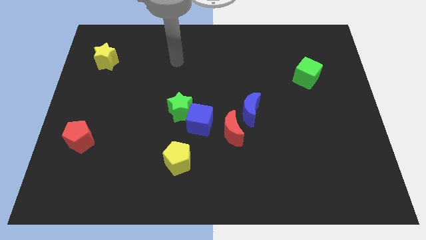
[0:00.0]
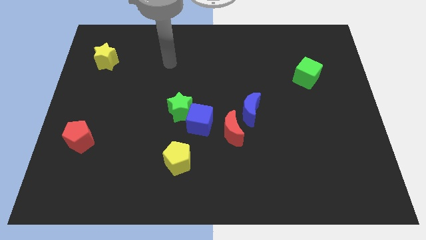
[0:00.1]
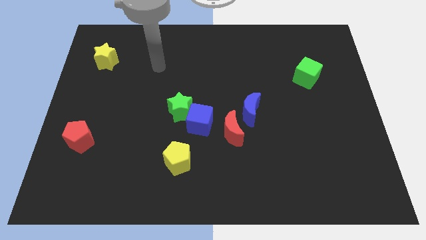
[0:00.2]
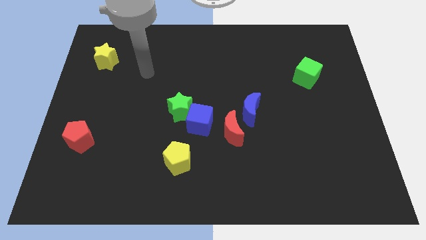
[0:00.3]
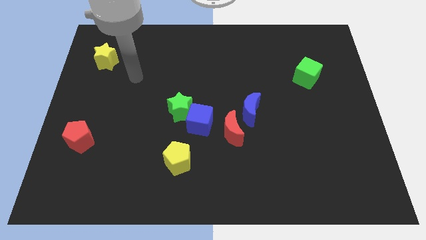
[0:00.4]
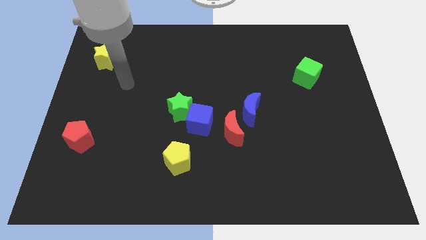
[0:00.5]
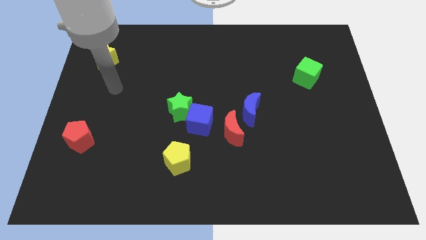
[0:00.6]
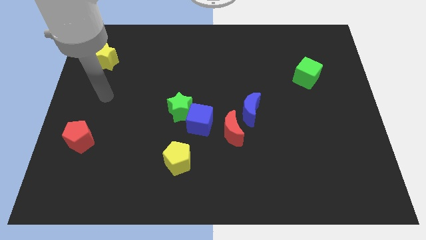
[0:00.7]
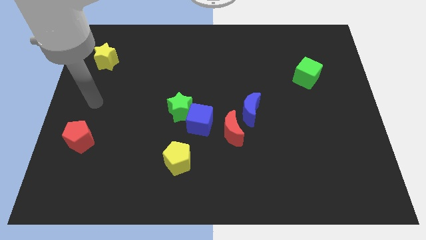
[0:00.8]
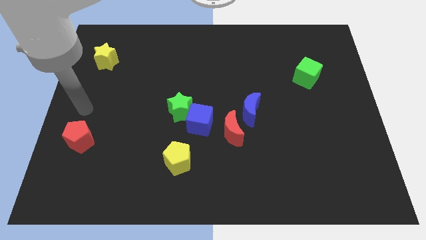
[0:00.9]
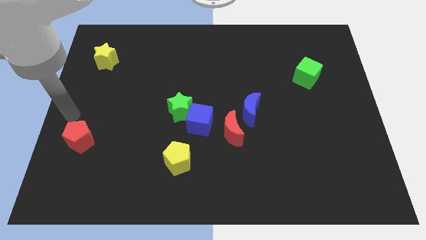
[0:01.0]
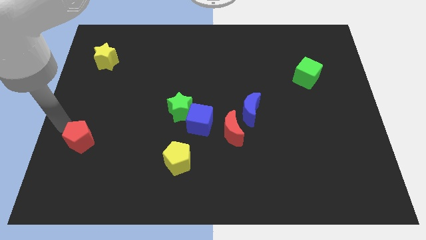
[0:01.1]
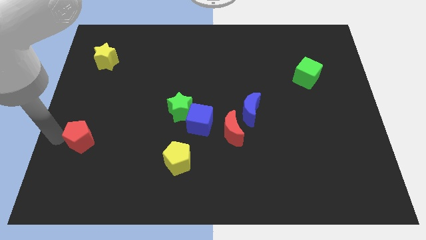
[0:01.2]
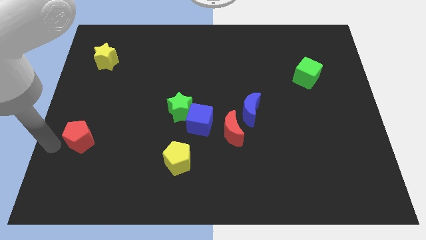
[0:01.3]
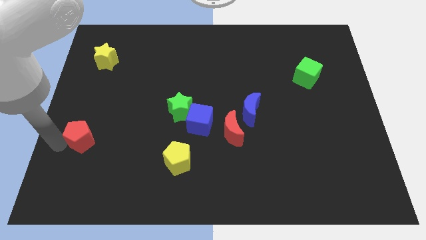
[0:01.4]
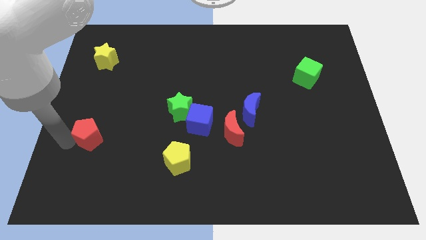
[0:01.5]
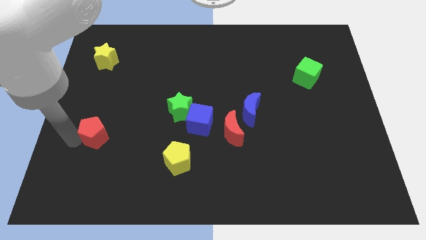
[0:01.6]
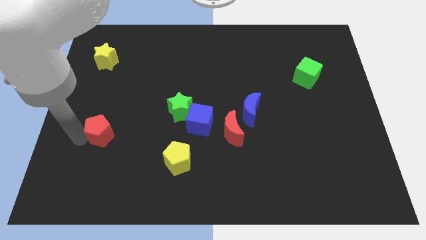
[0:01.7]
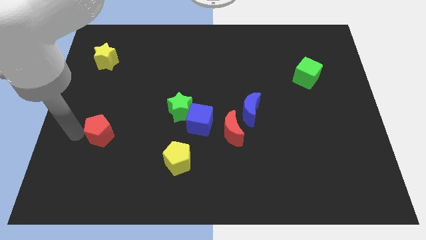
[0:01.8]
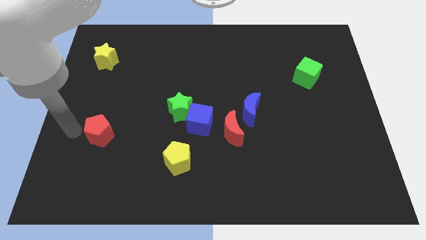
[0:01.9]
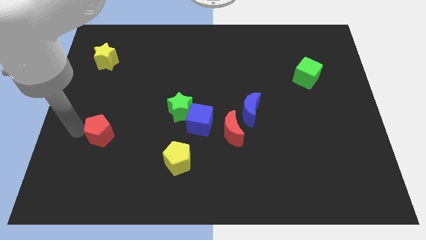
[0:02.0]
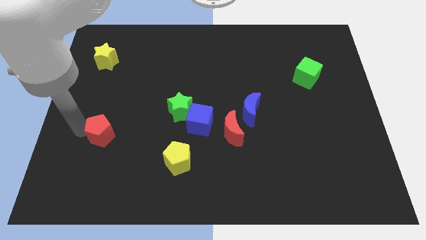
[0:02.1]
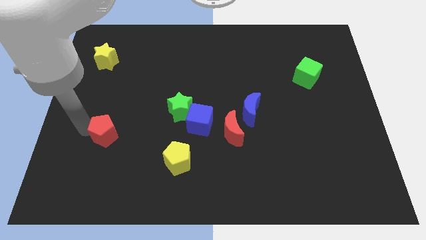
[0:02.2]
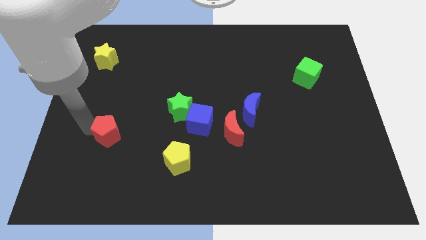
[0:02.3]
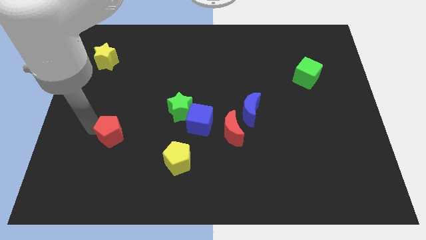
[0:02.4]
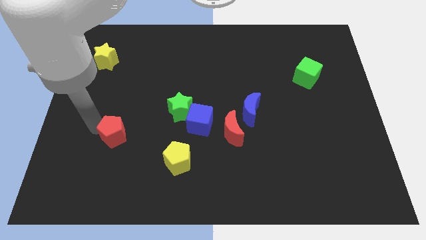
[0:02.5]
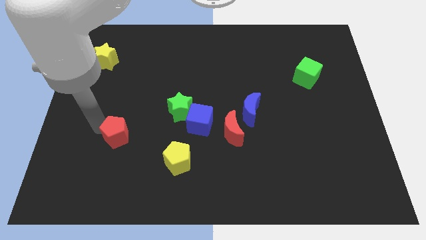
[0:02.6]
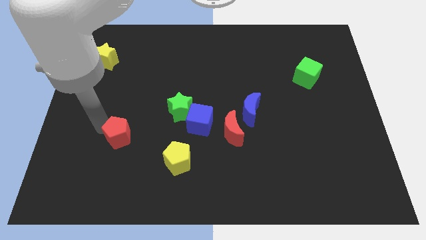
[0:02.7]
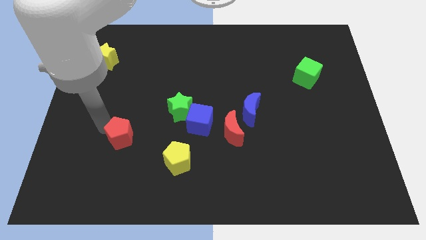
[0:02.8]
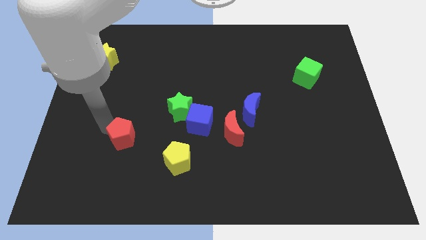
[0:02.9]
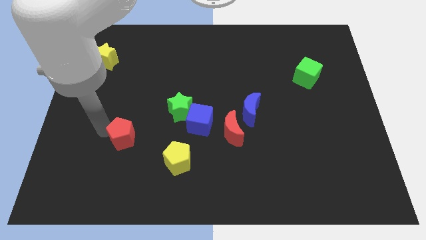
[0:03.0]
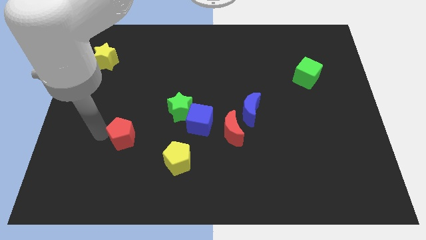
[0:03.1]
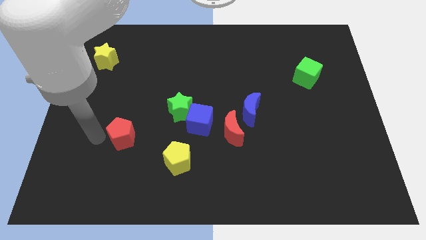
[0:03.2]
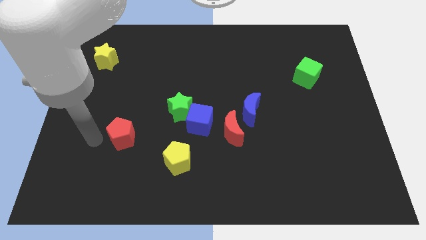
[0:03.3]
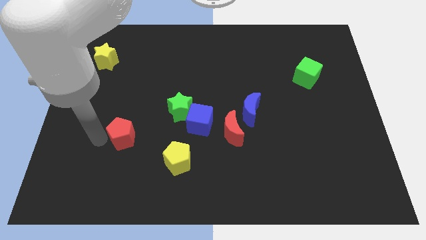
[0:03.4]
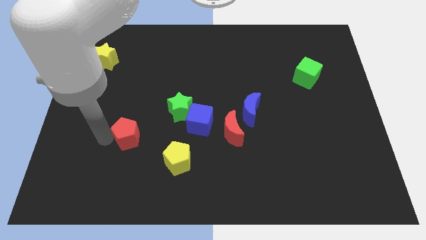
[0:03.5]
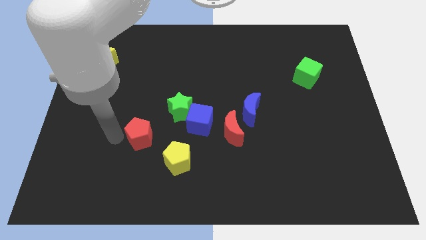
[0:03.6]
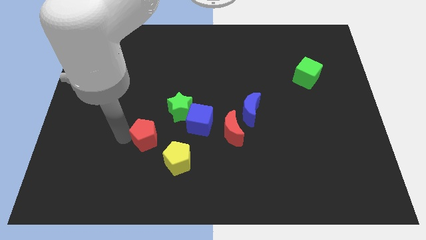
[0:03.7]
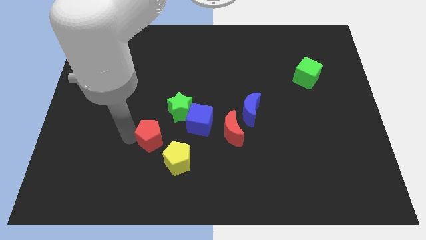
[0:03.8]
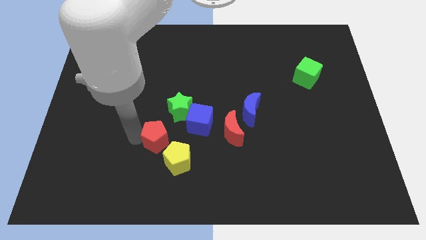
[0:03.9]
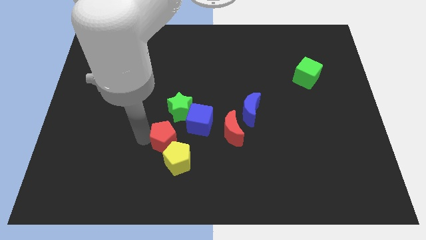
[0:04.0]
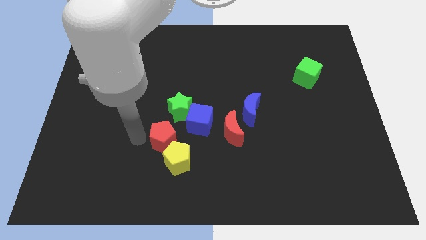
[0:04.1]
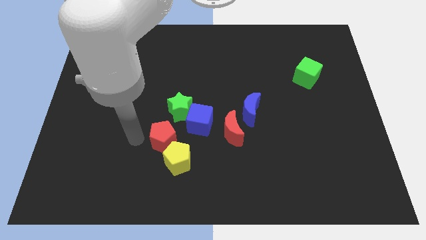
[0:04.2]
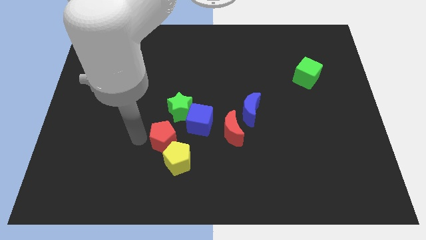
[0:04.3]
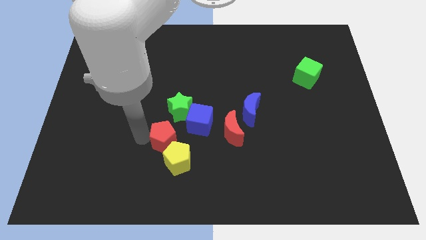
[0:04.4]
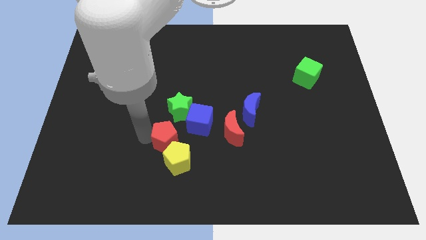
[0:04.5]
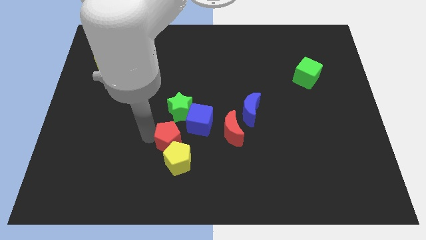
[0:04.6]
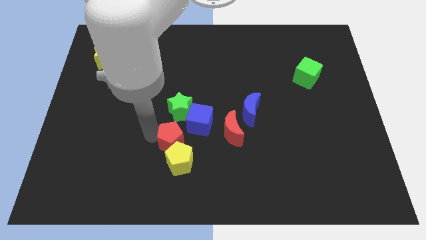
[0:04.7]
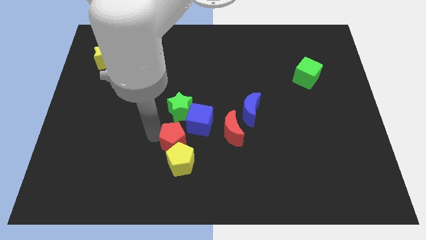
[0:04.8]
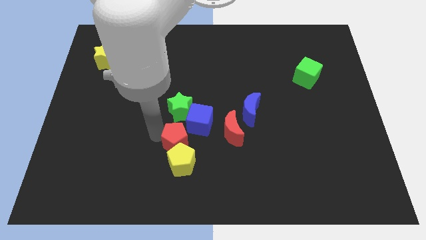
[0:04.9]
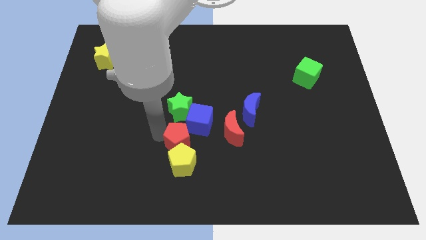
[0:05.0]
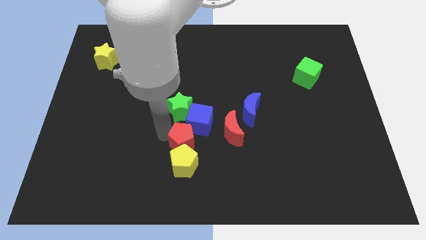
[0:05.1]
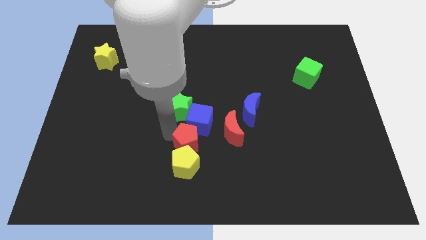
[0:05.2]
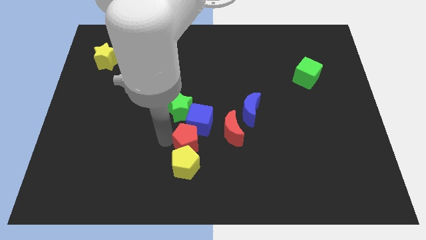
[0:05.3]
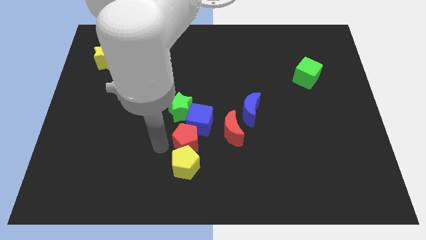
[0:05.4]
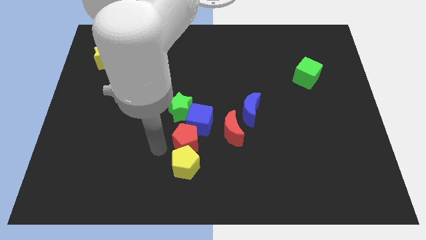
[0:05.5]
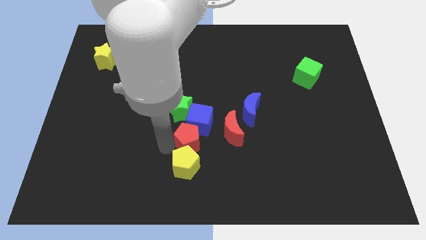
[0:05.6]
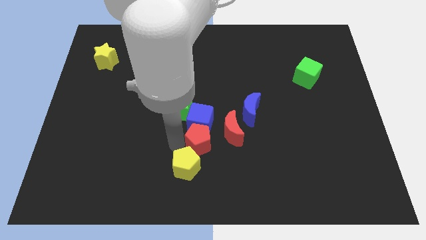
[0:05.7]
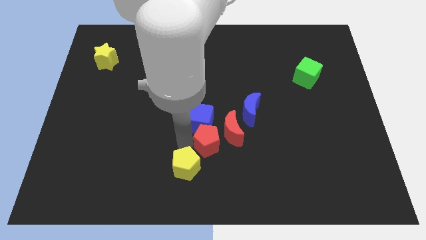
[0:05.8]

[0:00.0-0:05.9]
push the red pentagon close to the red moon

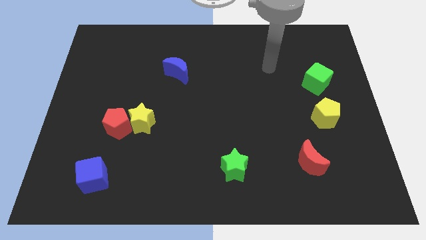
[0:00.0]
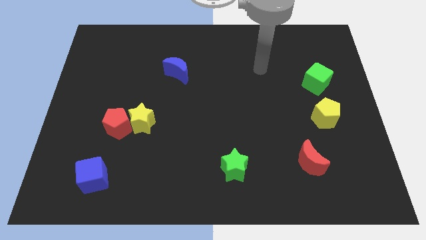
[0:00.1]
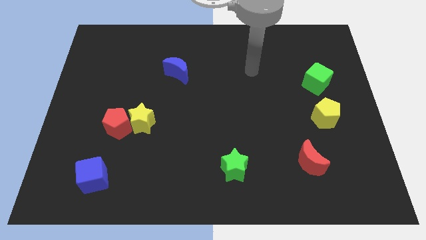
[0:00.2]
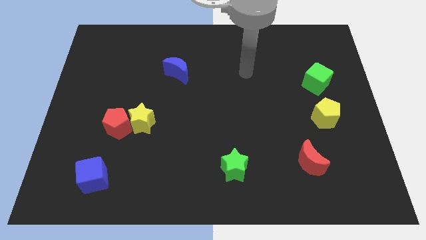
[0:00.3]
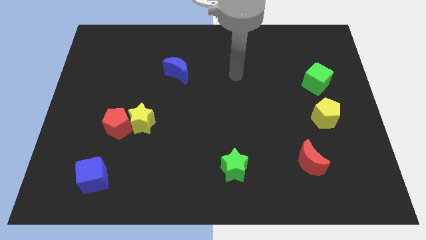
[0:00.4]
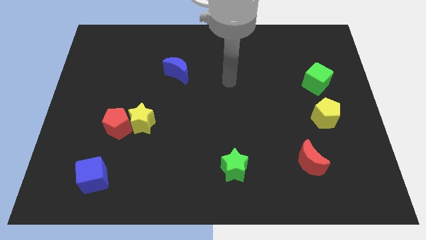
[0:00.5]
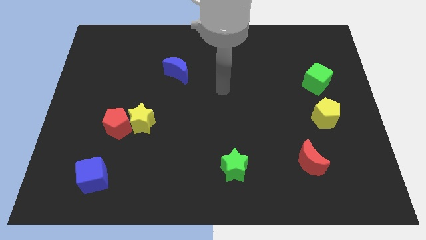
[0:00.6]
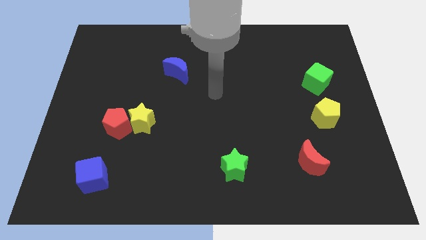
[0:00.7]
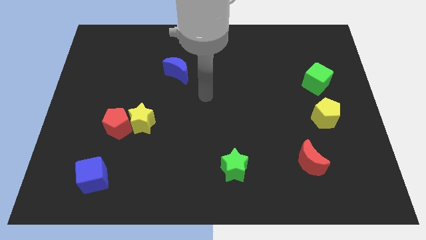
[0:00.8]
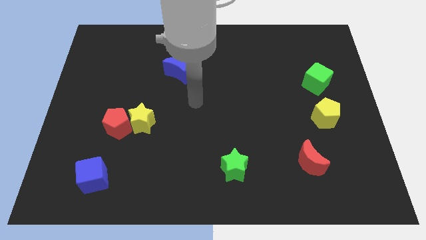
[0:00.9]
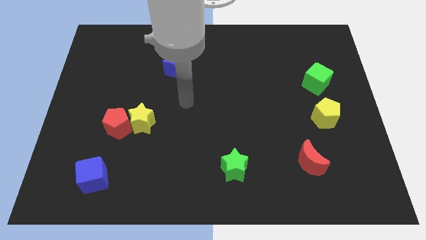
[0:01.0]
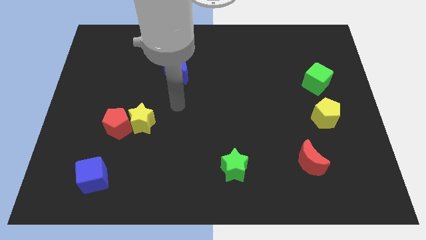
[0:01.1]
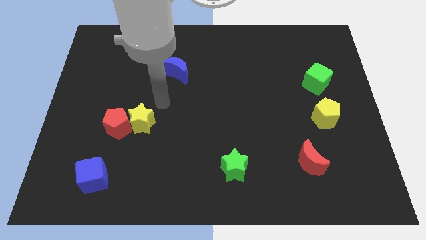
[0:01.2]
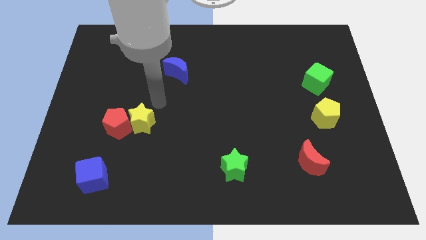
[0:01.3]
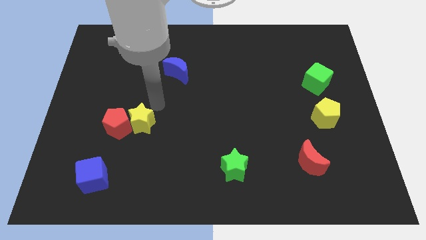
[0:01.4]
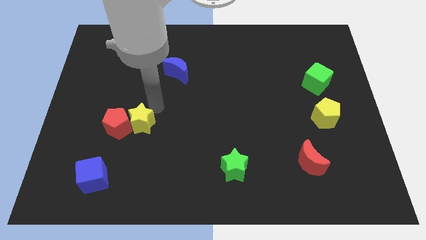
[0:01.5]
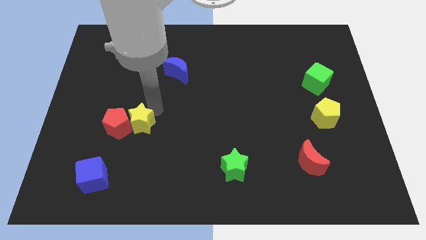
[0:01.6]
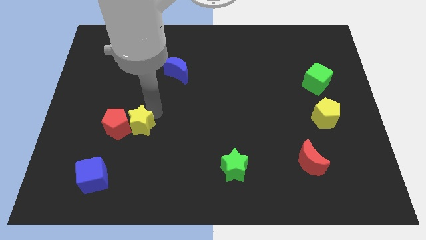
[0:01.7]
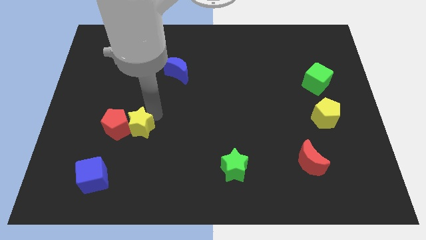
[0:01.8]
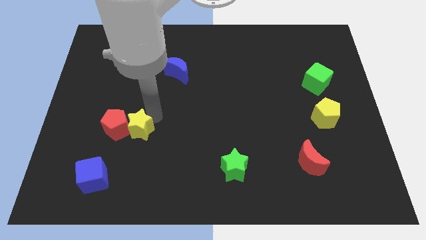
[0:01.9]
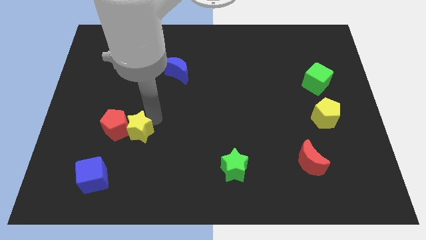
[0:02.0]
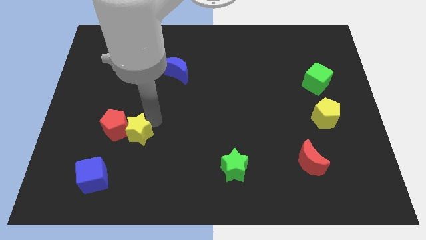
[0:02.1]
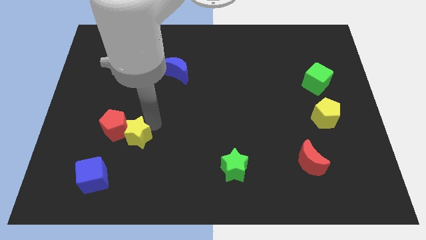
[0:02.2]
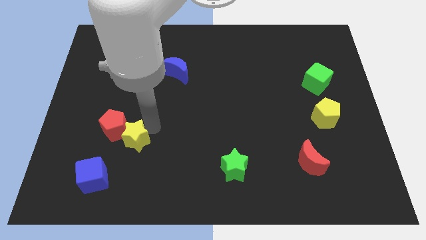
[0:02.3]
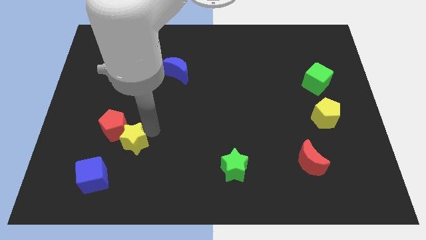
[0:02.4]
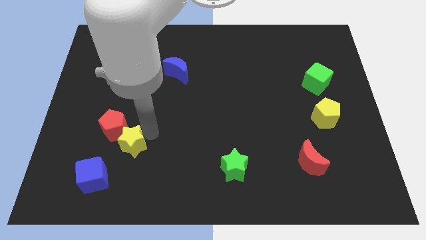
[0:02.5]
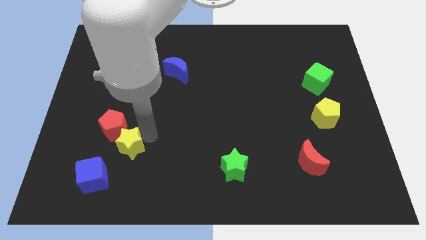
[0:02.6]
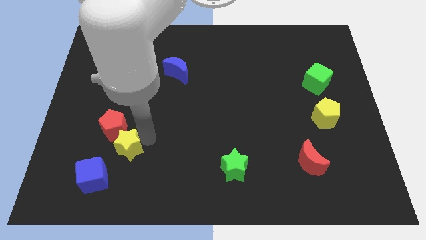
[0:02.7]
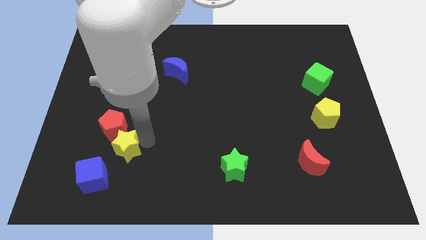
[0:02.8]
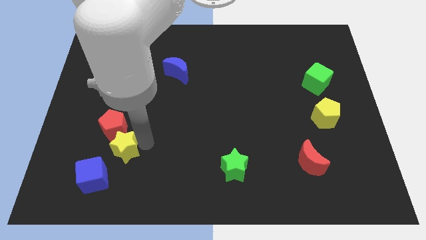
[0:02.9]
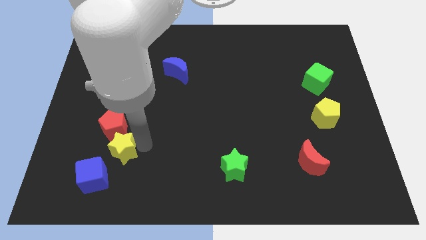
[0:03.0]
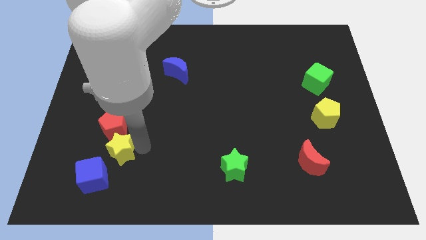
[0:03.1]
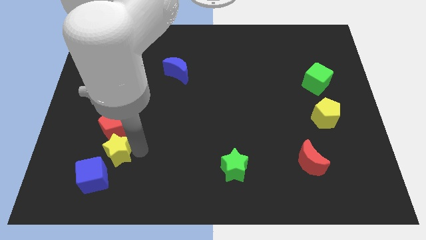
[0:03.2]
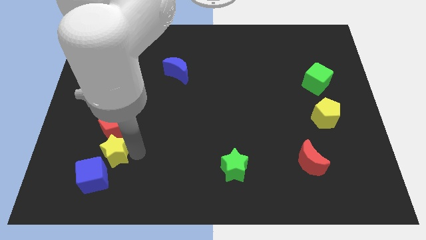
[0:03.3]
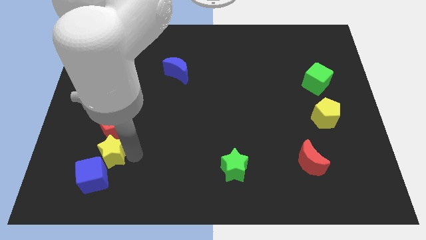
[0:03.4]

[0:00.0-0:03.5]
push the yellow star next to the blue cube
